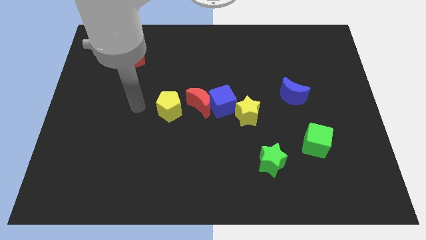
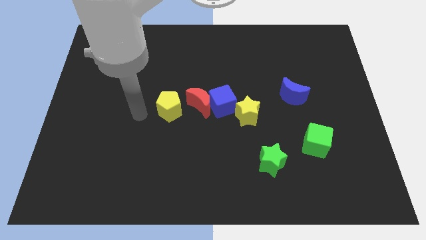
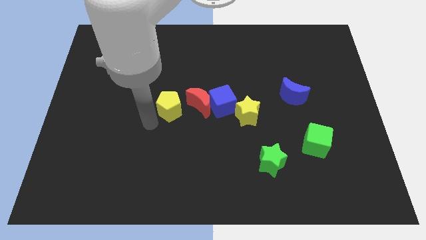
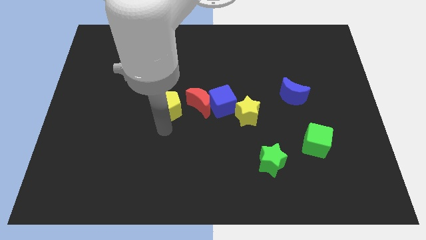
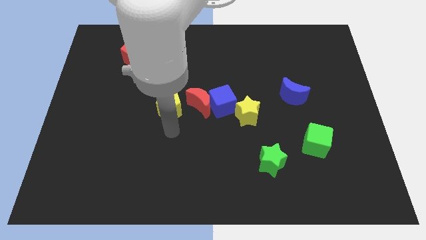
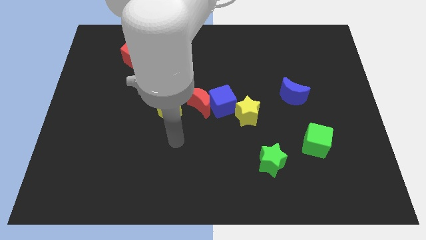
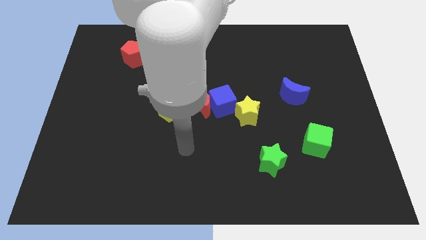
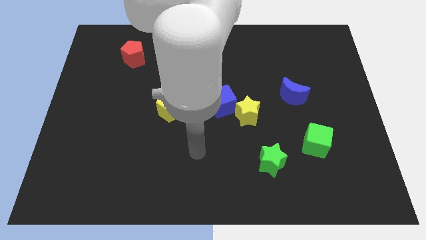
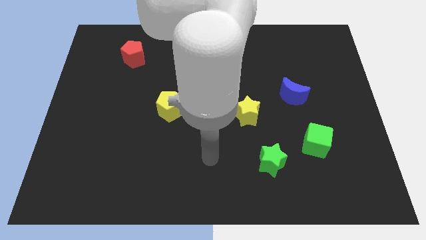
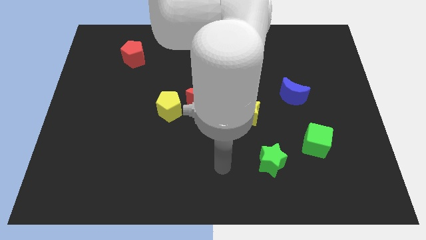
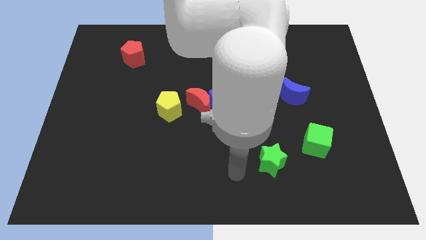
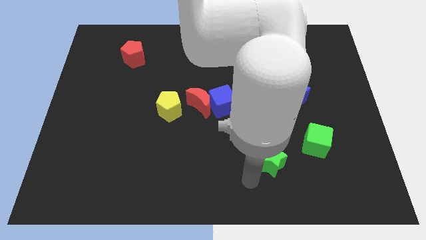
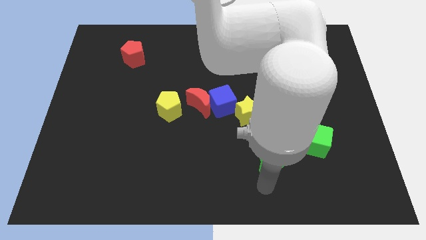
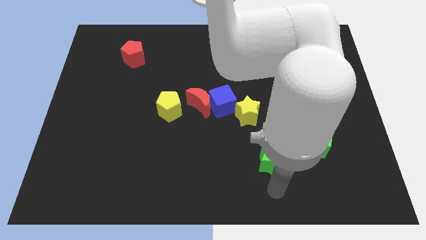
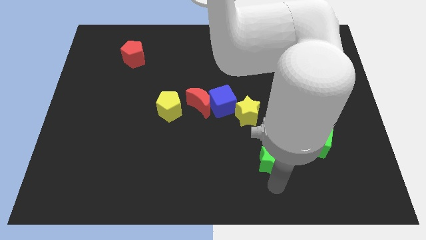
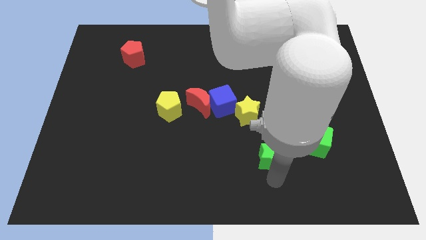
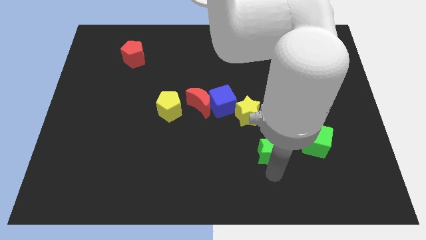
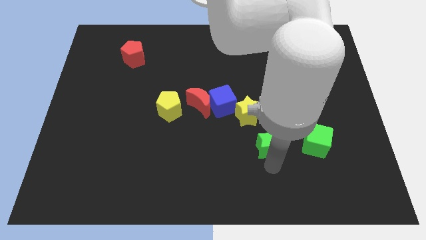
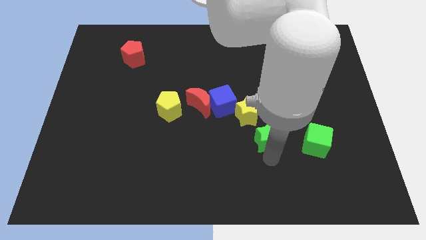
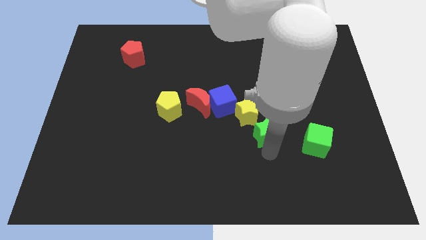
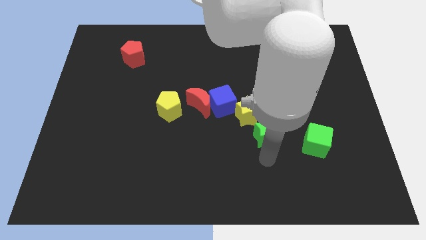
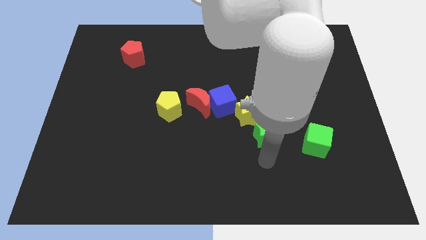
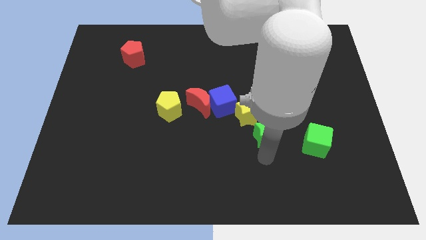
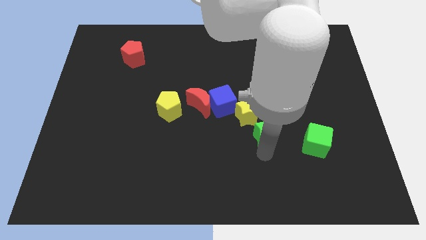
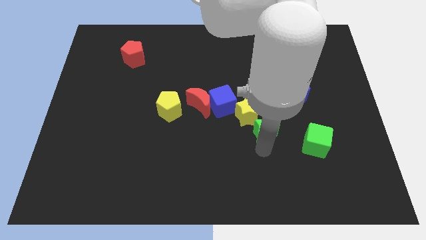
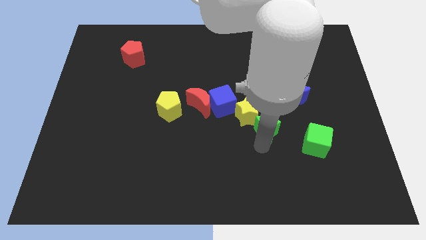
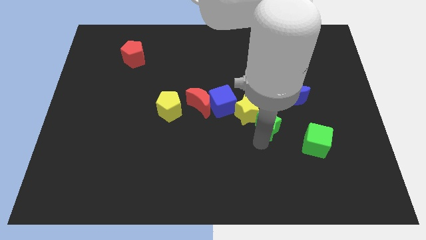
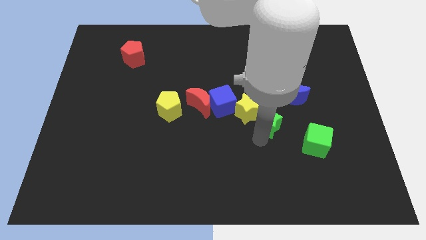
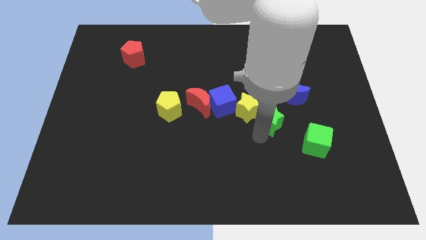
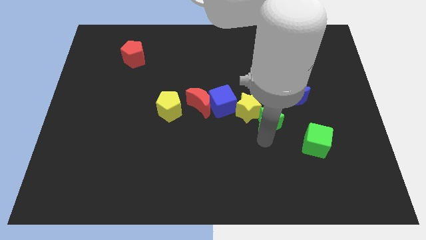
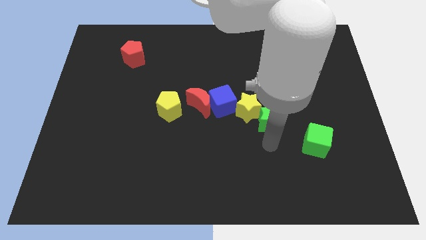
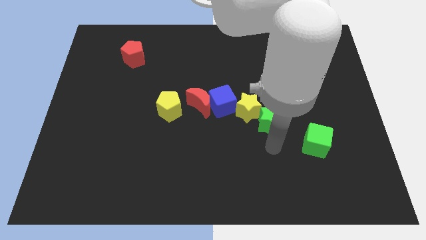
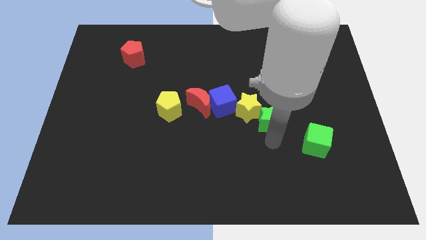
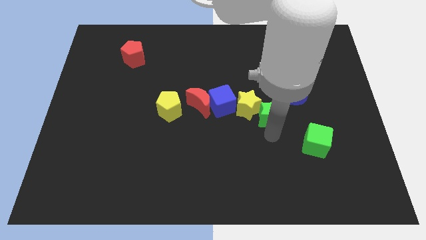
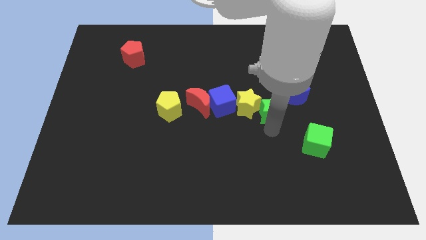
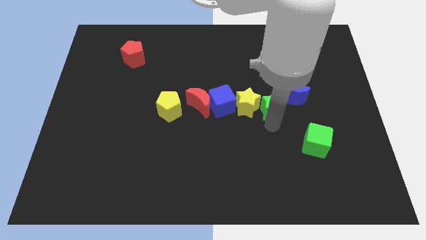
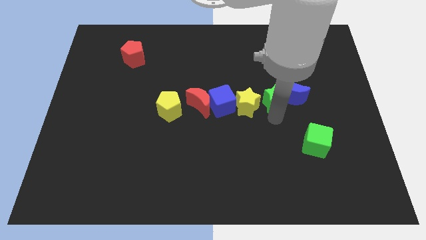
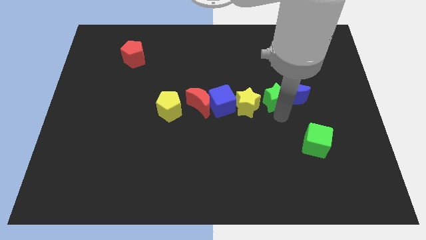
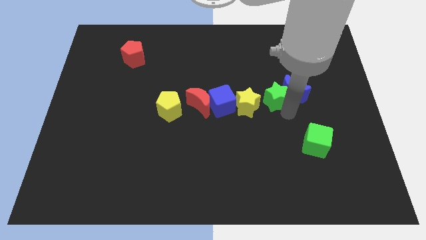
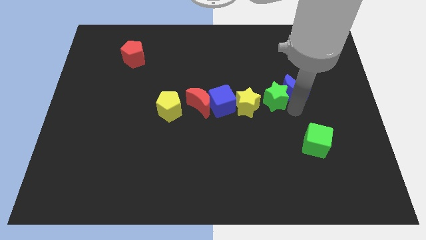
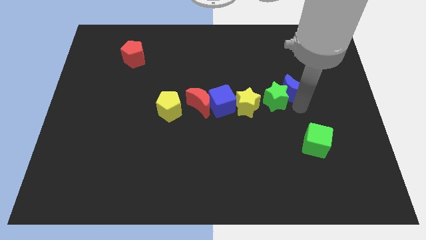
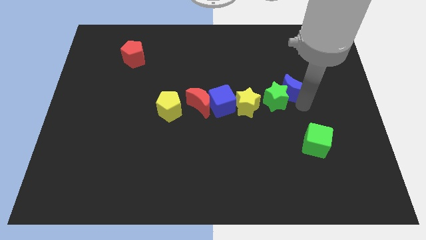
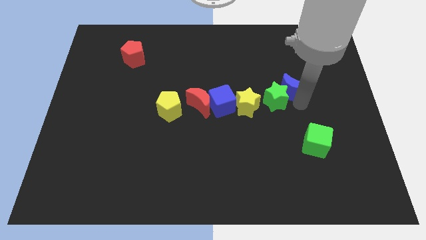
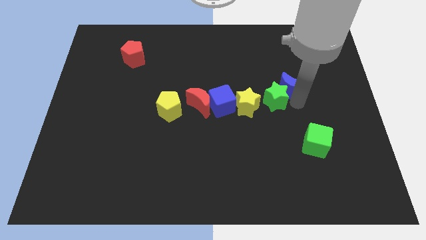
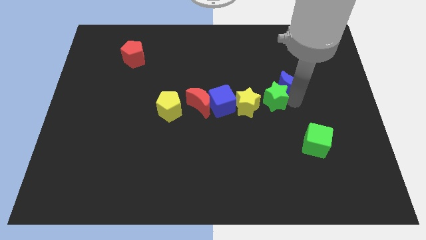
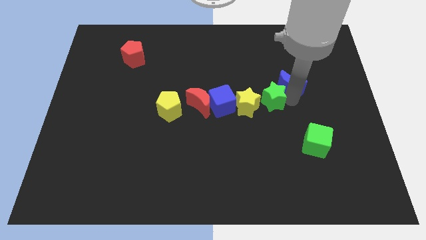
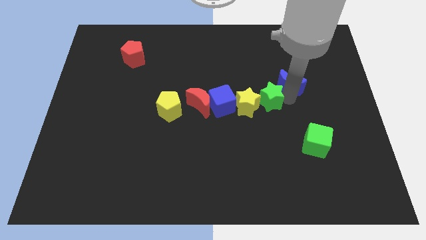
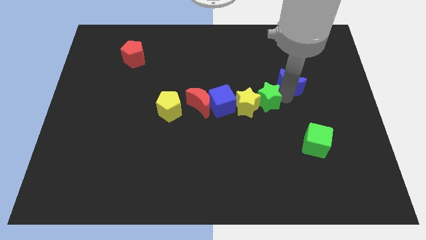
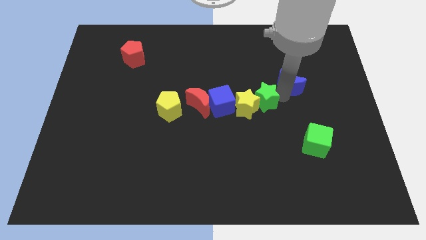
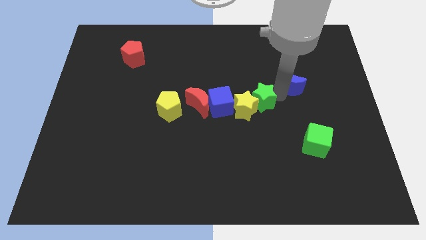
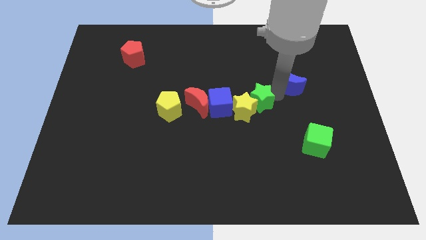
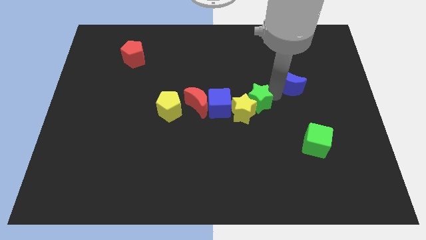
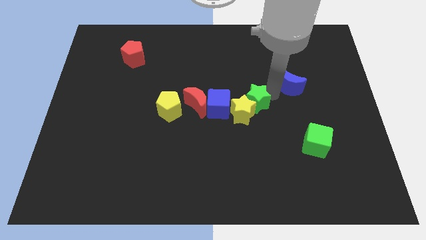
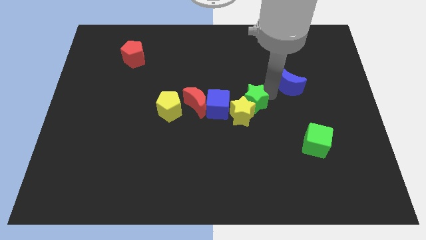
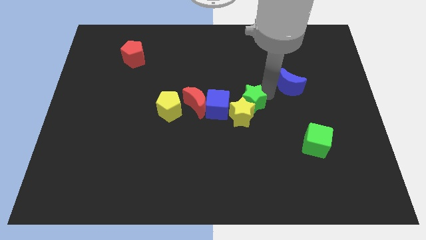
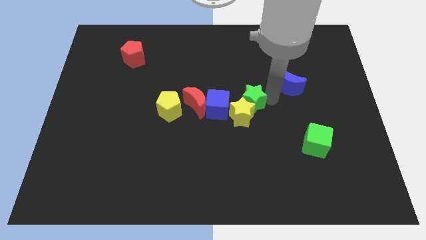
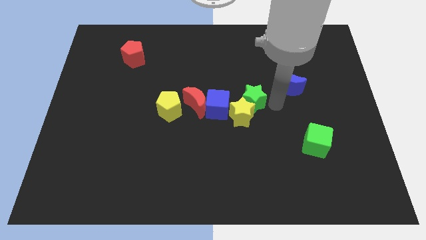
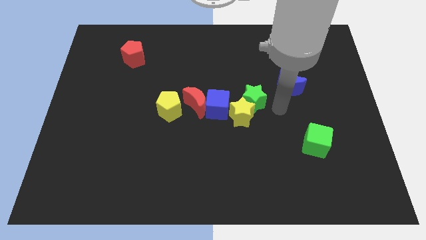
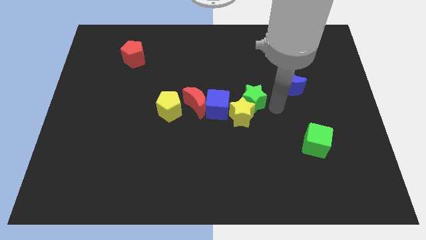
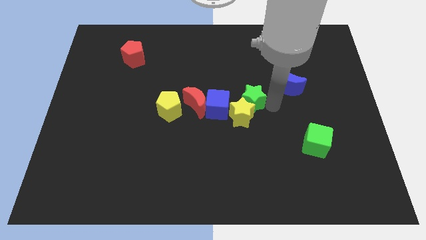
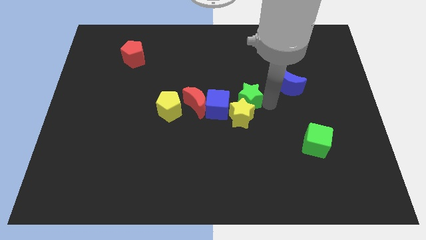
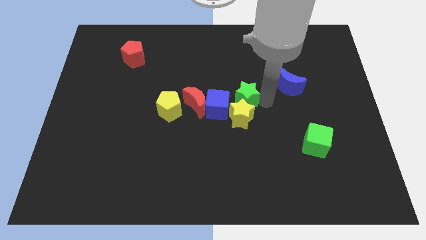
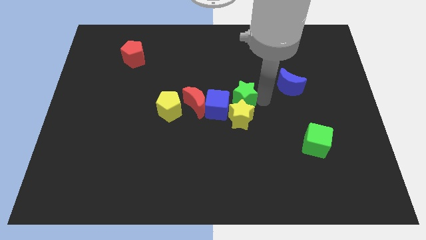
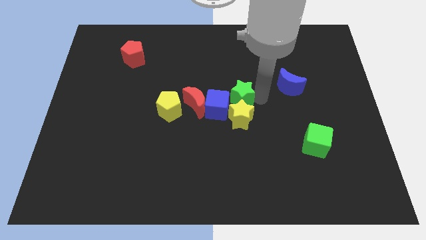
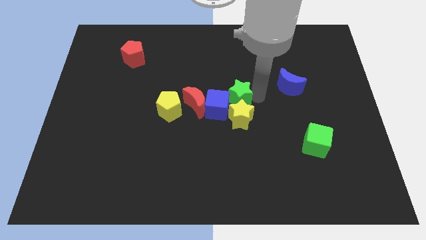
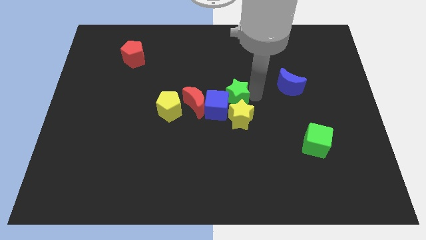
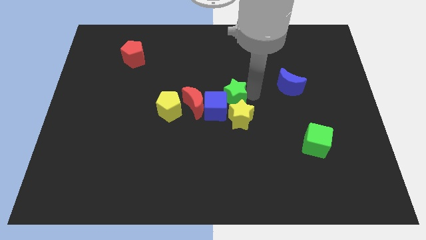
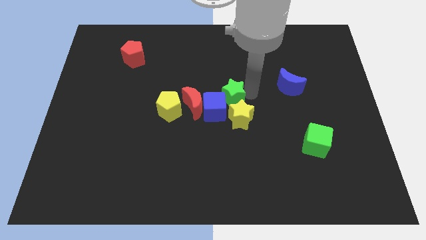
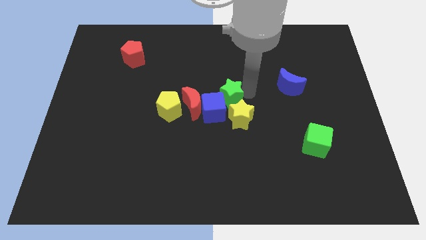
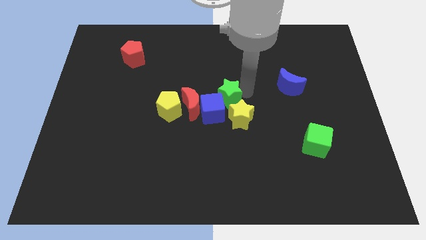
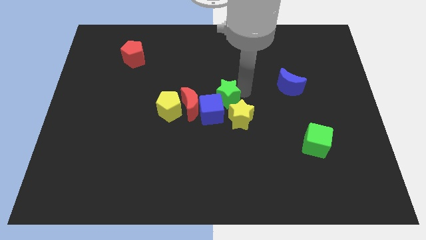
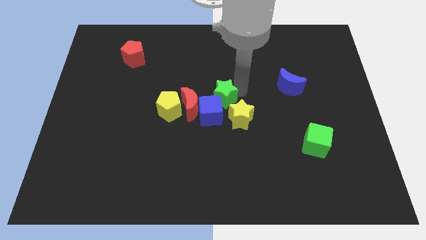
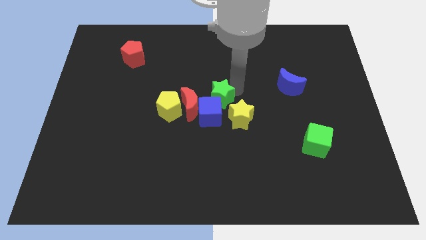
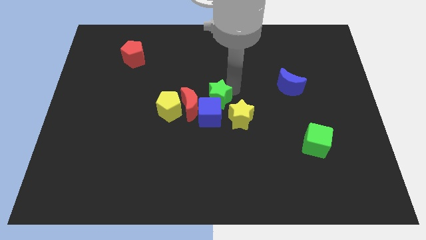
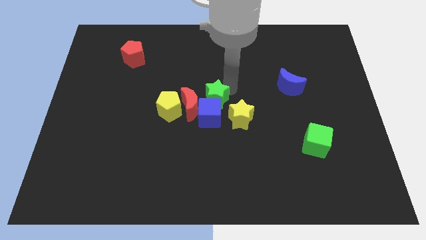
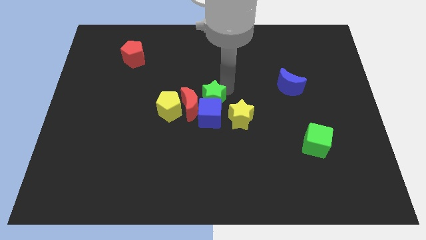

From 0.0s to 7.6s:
move the green star to the top right of the yellow pentagon

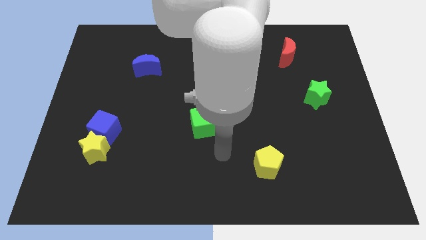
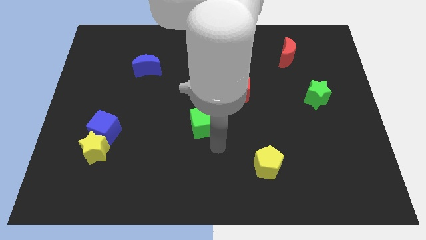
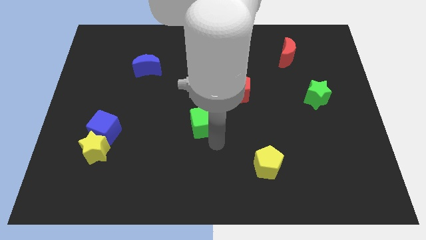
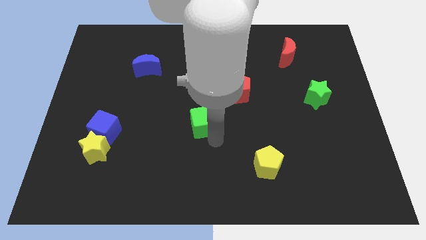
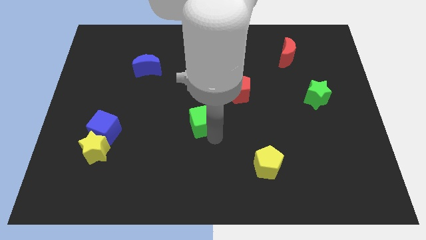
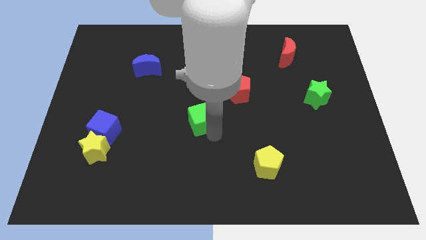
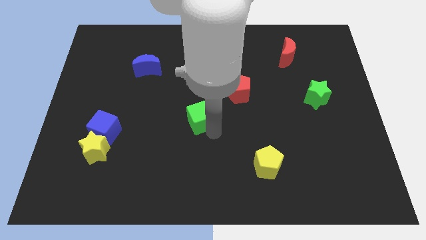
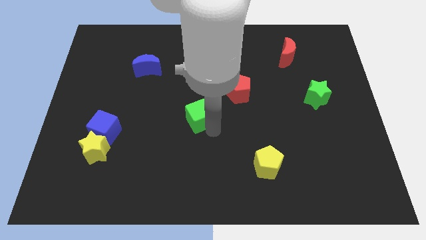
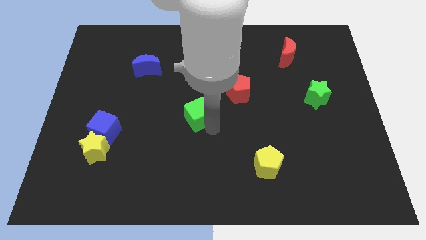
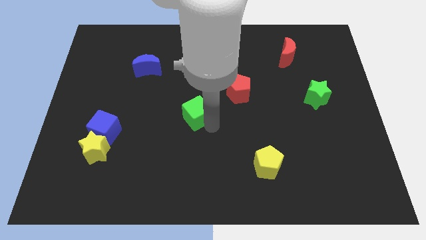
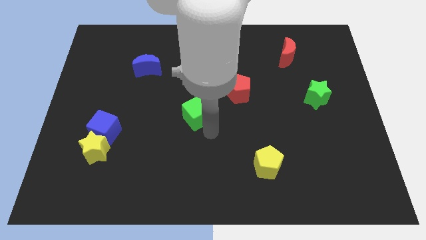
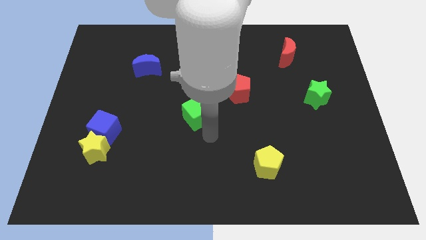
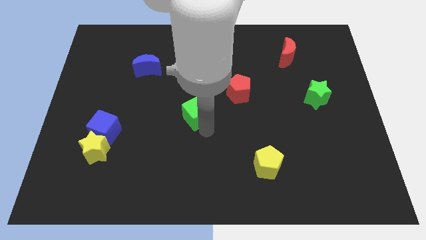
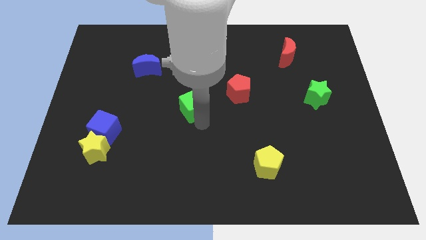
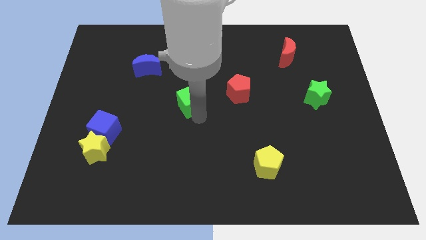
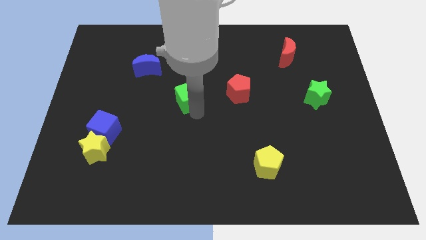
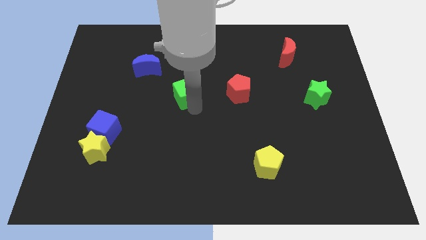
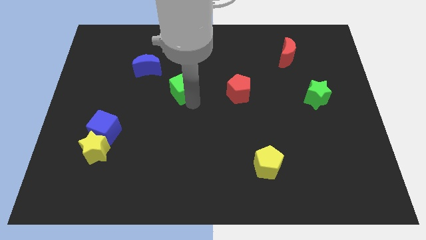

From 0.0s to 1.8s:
put the green cube diagonally down and to the right of the blue moon
